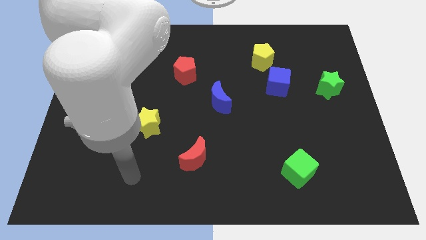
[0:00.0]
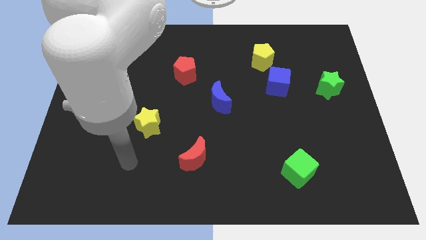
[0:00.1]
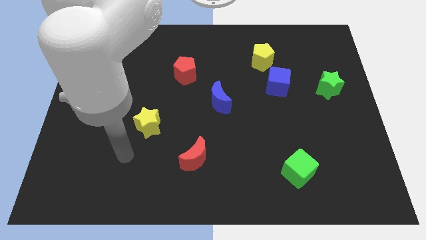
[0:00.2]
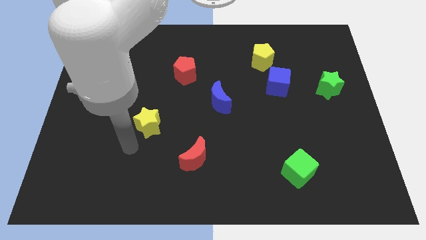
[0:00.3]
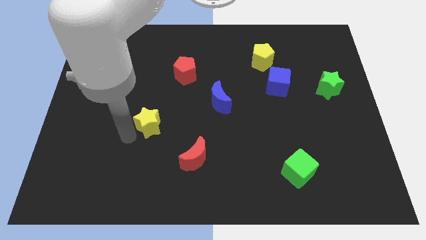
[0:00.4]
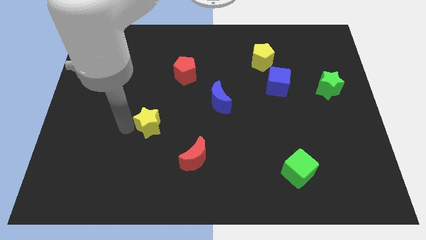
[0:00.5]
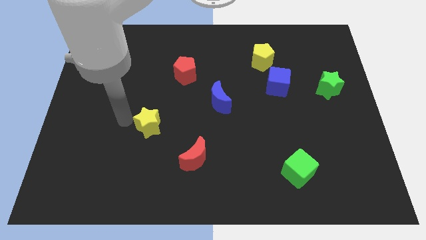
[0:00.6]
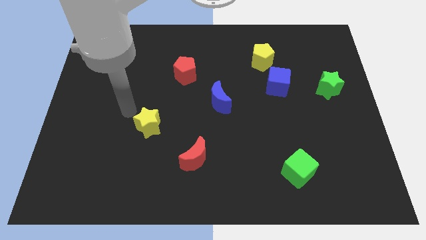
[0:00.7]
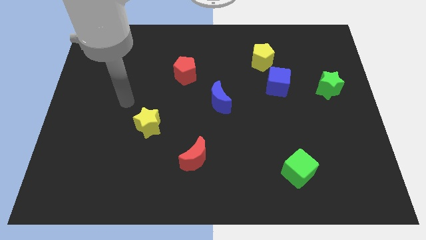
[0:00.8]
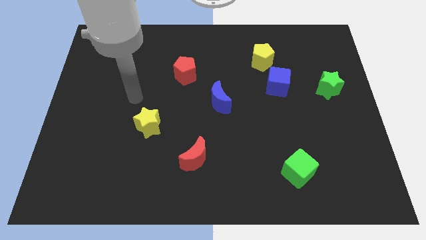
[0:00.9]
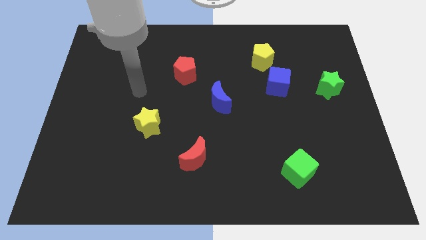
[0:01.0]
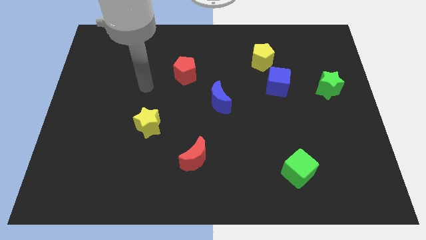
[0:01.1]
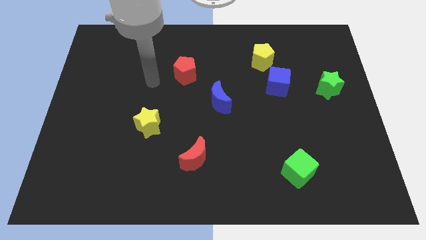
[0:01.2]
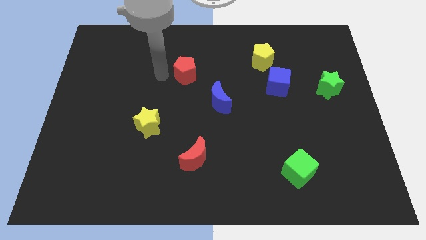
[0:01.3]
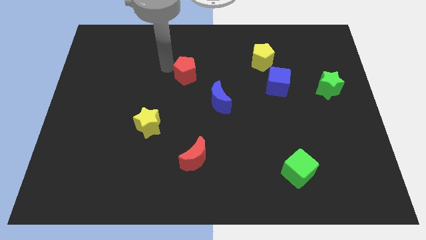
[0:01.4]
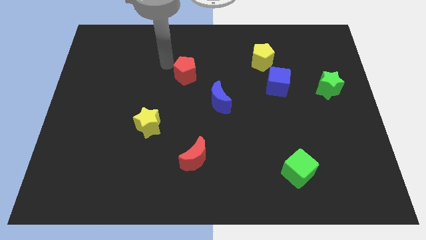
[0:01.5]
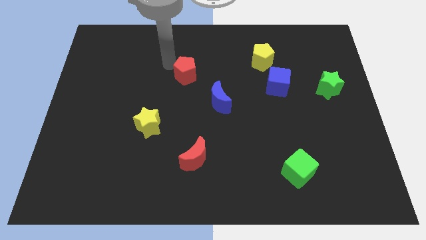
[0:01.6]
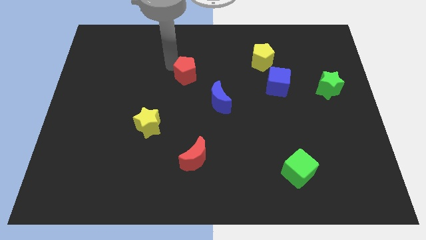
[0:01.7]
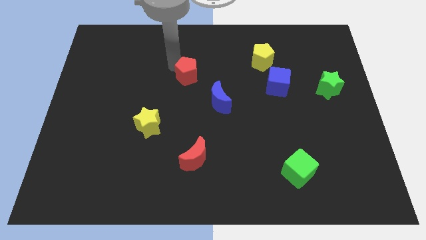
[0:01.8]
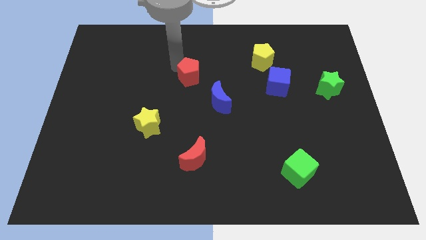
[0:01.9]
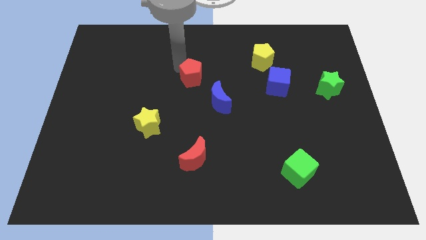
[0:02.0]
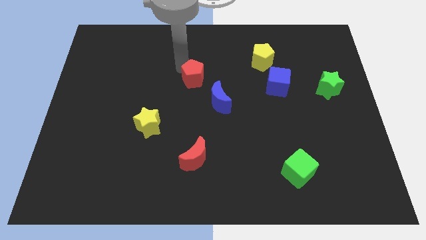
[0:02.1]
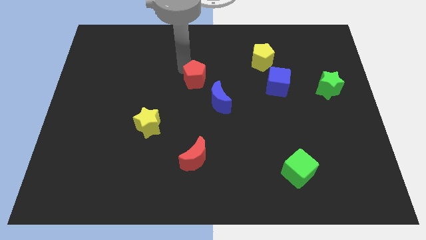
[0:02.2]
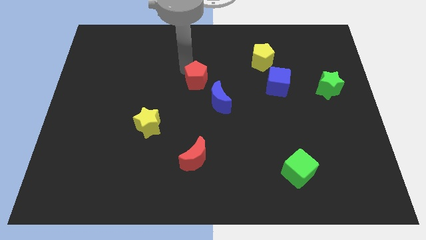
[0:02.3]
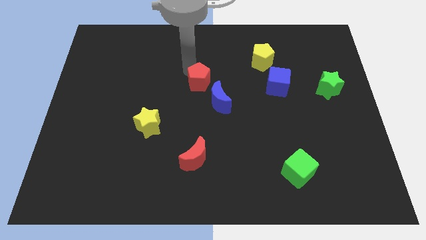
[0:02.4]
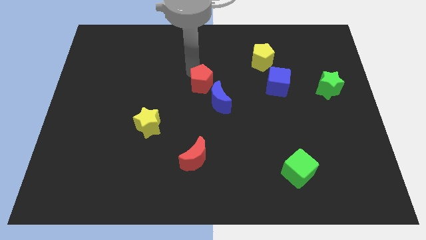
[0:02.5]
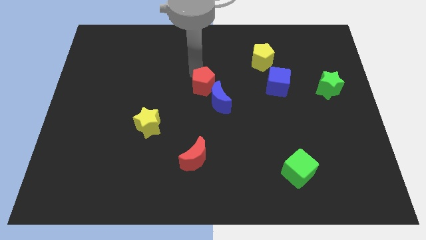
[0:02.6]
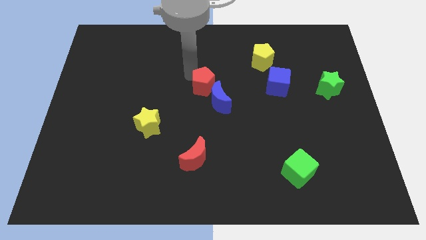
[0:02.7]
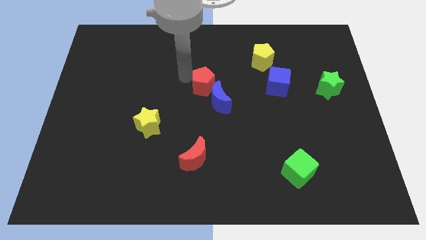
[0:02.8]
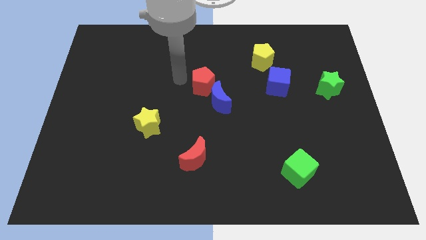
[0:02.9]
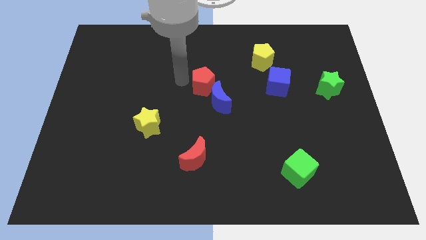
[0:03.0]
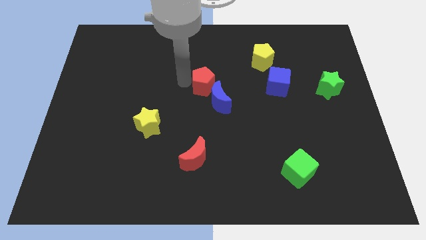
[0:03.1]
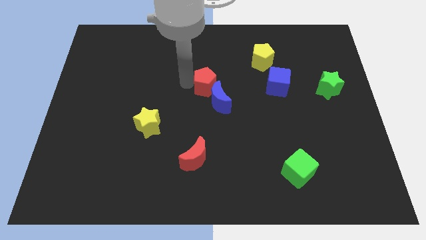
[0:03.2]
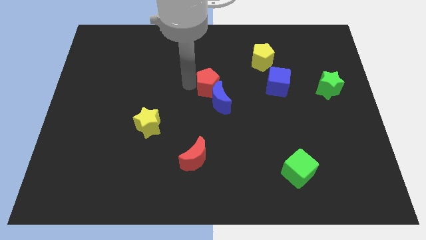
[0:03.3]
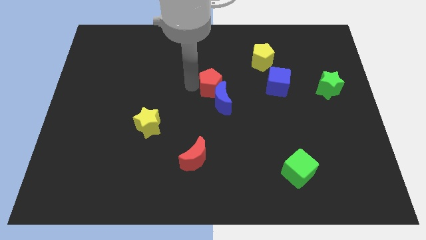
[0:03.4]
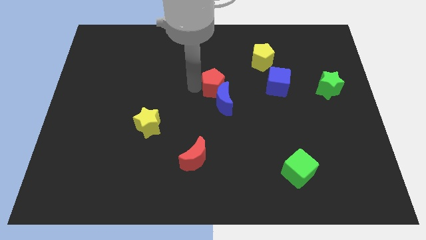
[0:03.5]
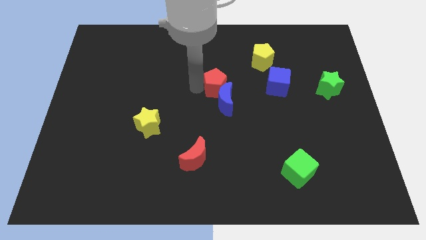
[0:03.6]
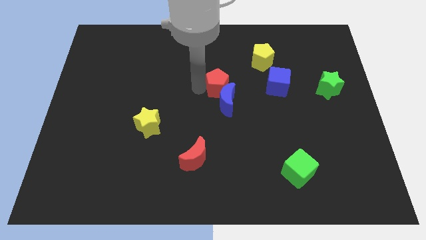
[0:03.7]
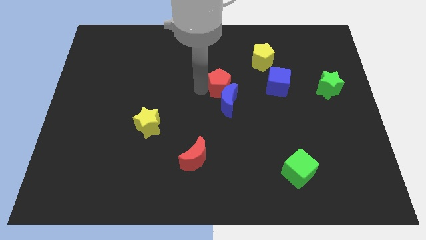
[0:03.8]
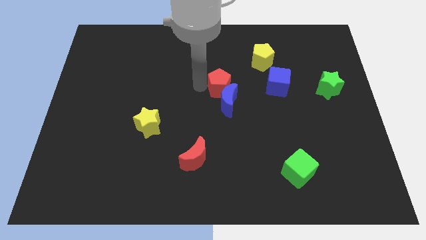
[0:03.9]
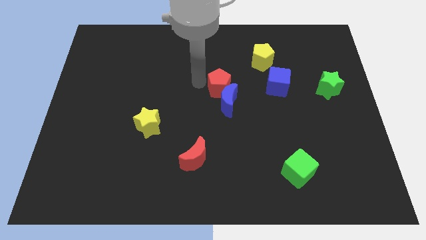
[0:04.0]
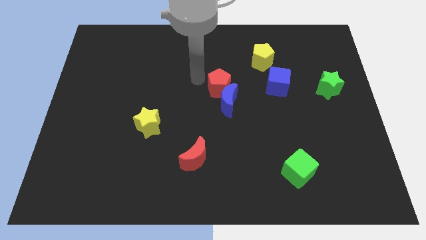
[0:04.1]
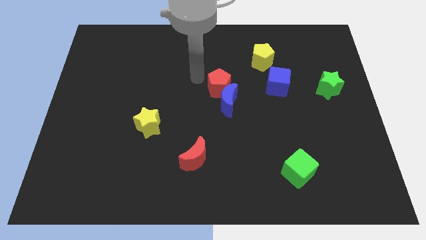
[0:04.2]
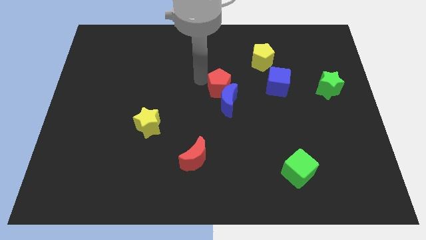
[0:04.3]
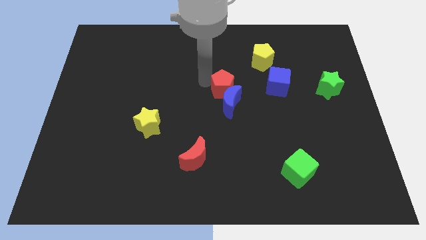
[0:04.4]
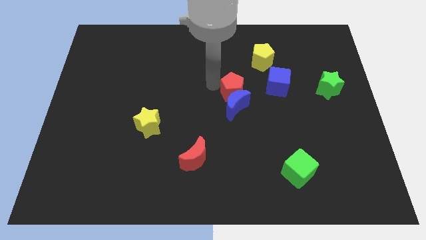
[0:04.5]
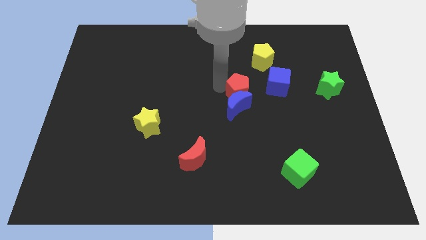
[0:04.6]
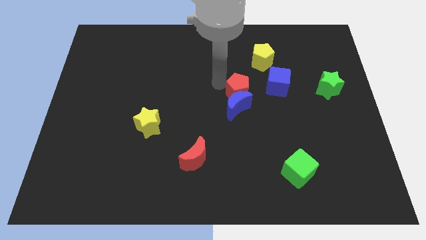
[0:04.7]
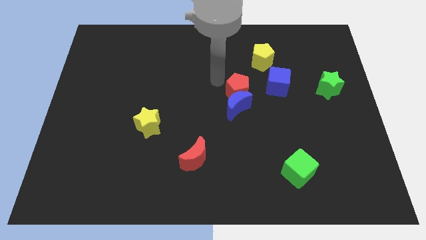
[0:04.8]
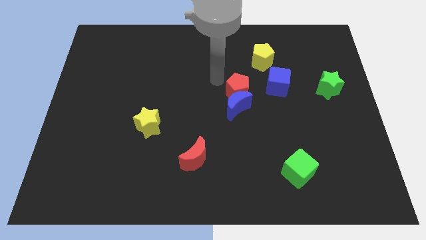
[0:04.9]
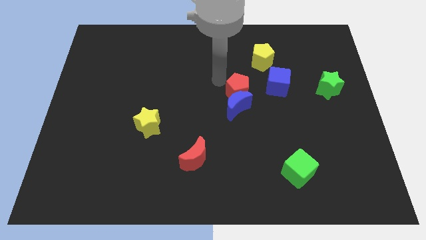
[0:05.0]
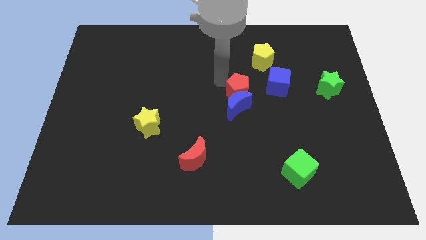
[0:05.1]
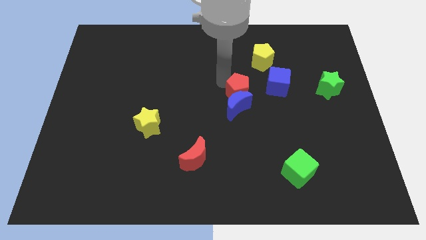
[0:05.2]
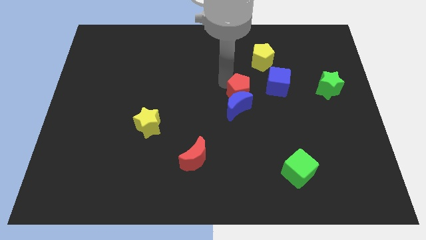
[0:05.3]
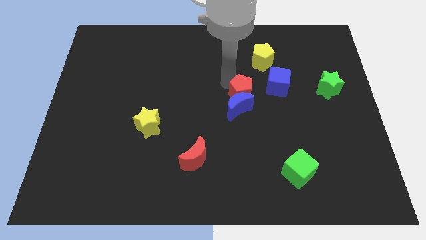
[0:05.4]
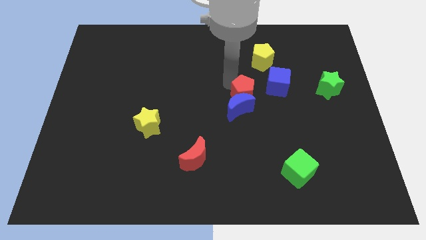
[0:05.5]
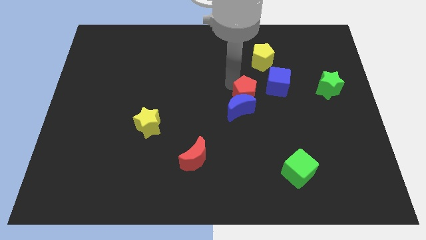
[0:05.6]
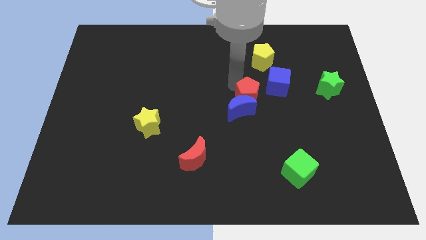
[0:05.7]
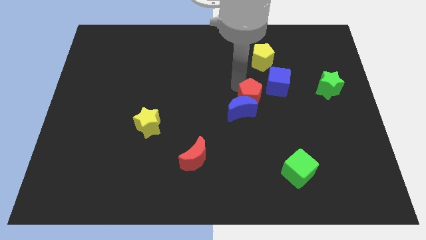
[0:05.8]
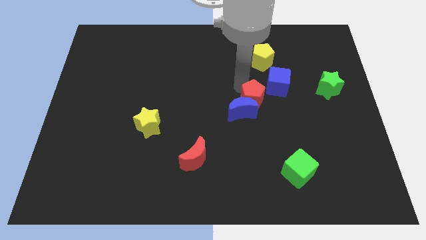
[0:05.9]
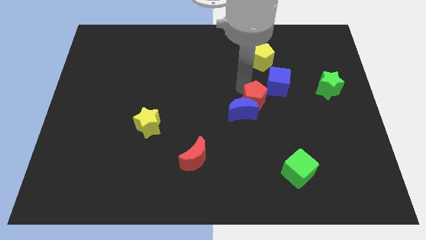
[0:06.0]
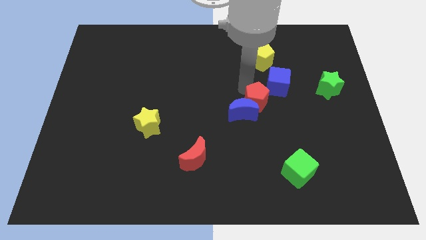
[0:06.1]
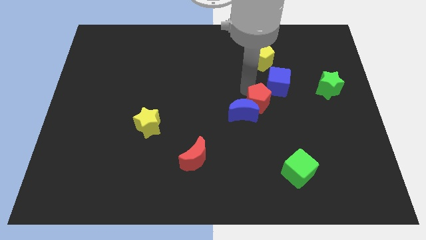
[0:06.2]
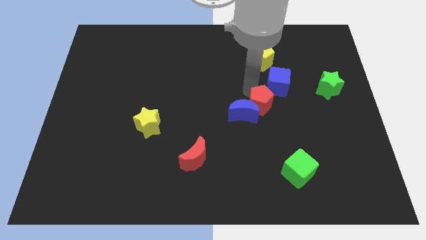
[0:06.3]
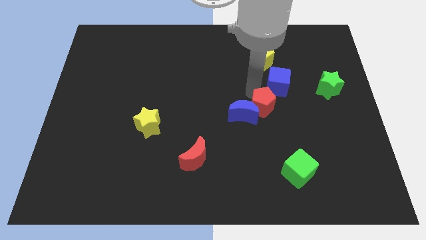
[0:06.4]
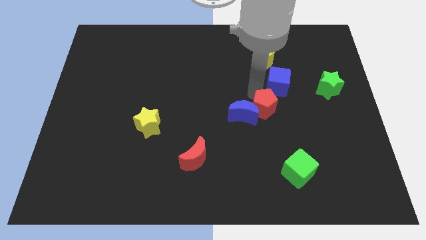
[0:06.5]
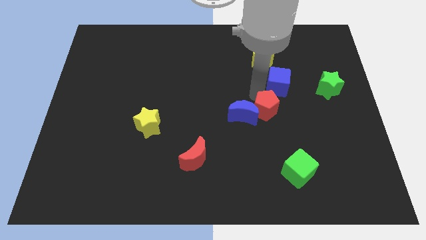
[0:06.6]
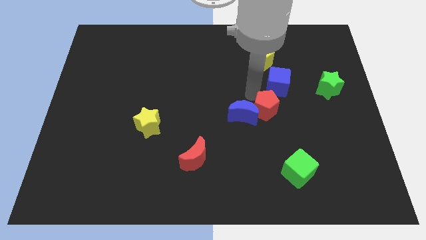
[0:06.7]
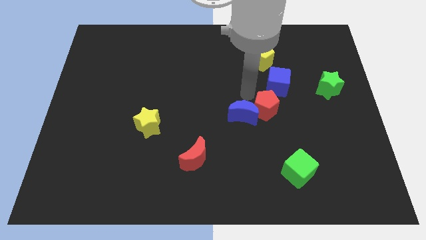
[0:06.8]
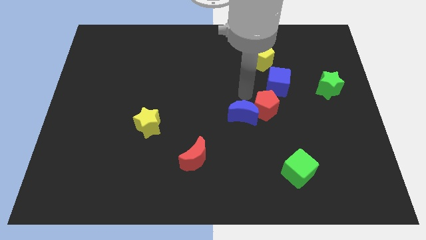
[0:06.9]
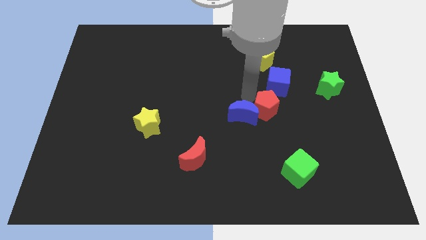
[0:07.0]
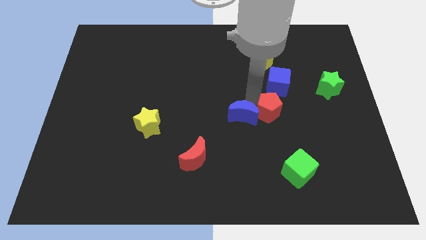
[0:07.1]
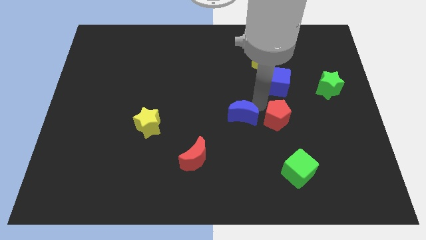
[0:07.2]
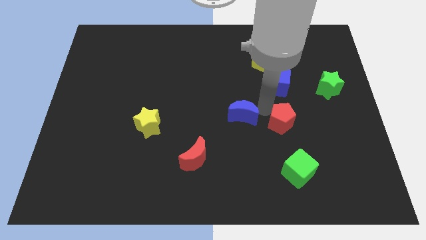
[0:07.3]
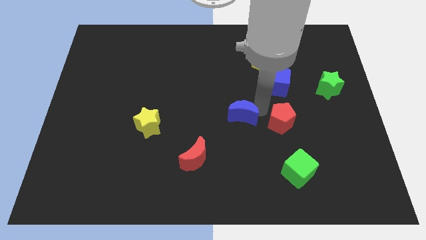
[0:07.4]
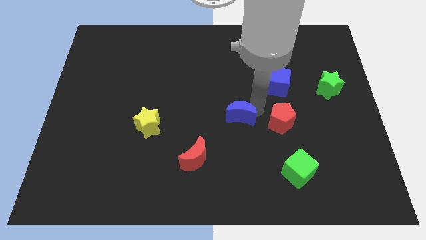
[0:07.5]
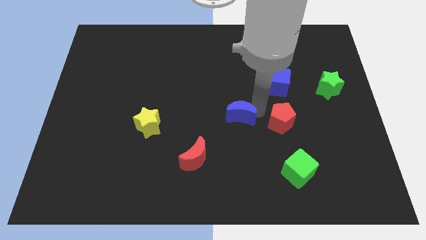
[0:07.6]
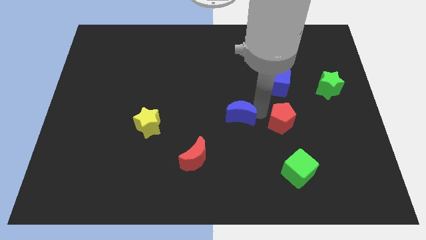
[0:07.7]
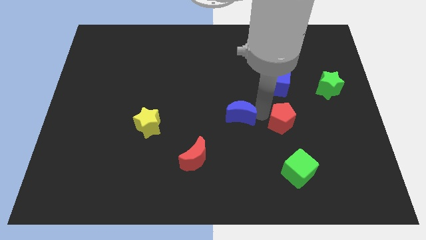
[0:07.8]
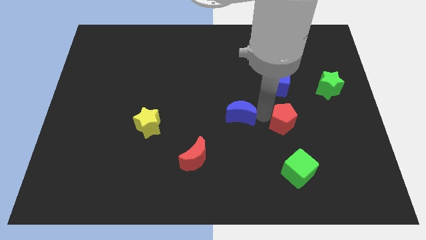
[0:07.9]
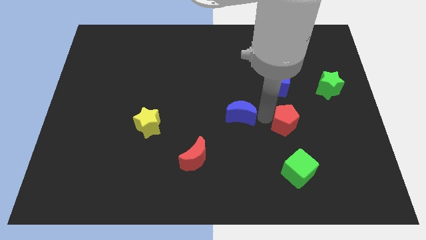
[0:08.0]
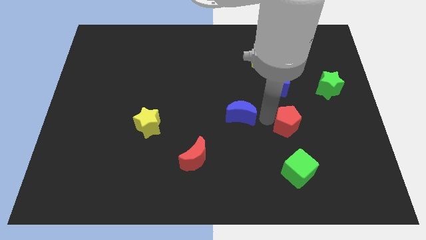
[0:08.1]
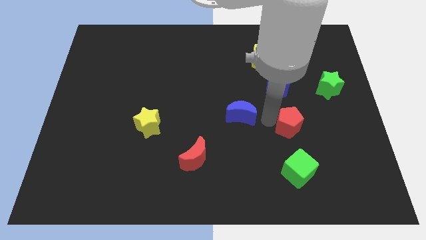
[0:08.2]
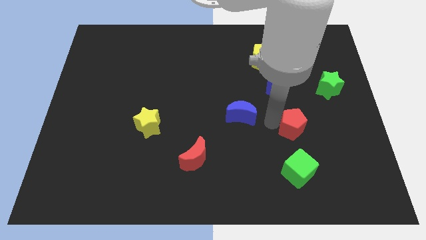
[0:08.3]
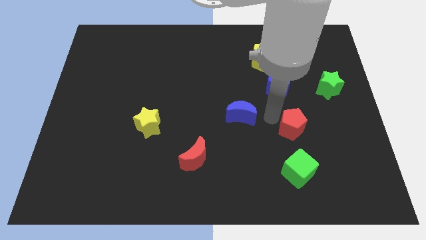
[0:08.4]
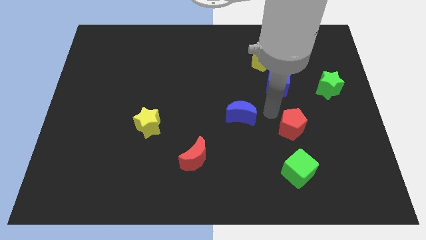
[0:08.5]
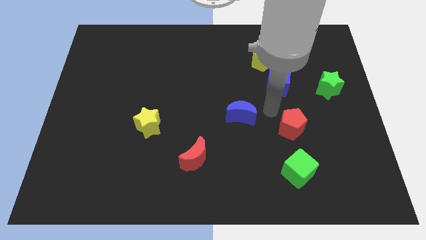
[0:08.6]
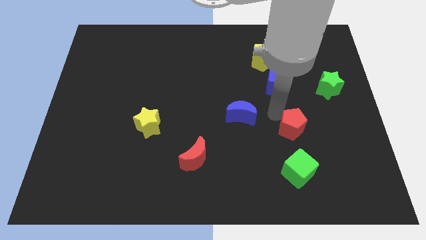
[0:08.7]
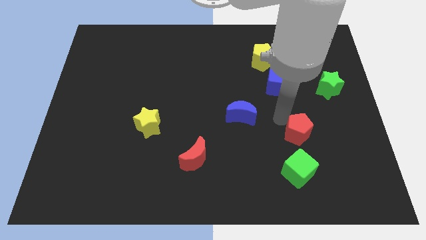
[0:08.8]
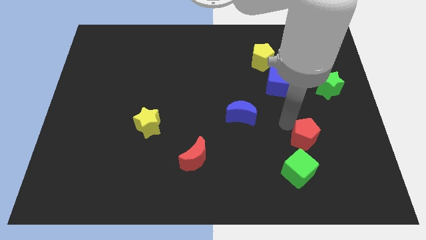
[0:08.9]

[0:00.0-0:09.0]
put the red pentagon to the top right of the green cube
